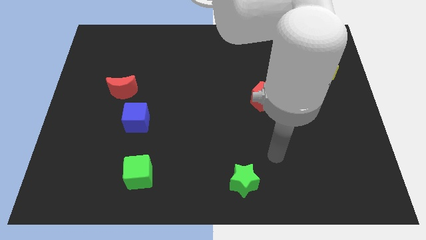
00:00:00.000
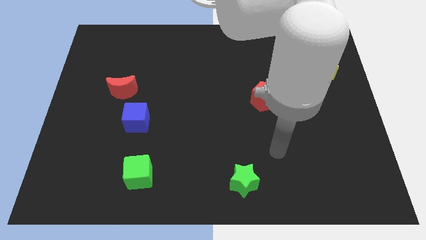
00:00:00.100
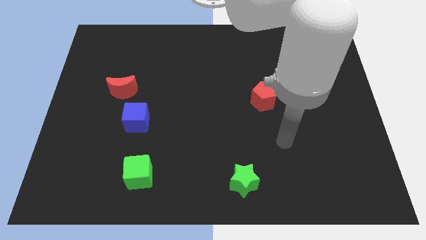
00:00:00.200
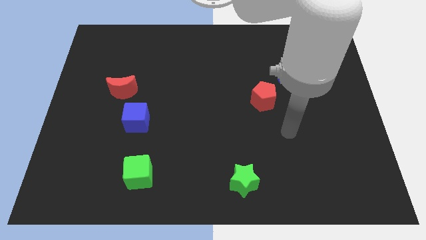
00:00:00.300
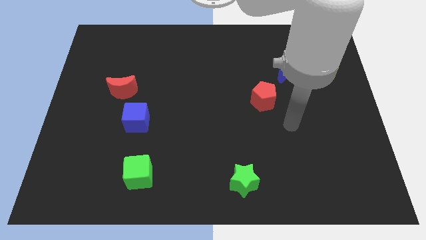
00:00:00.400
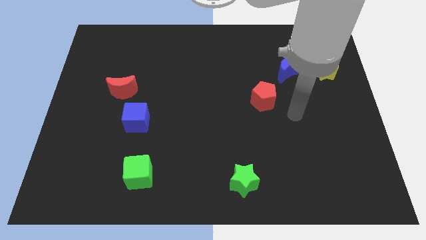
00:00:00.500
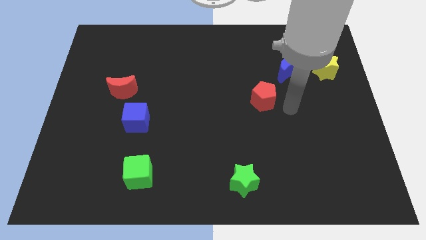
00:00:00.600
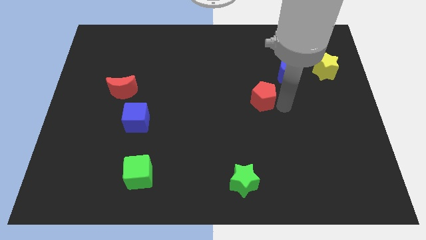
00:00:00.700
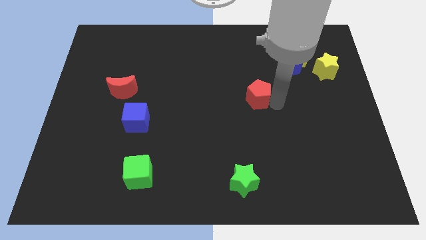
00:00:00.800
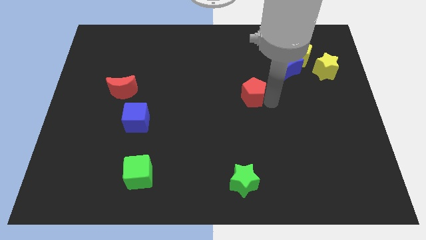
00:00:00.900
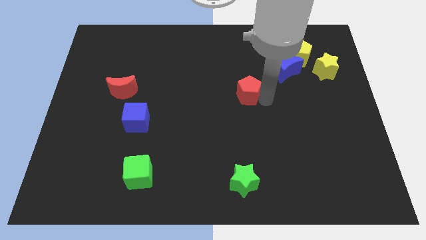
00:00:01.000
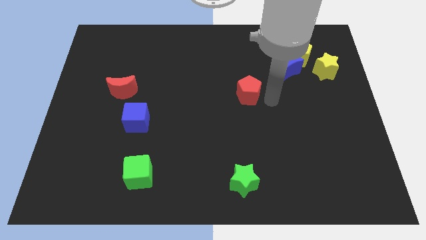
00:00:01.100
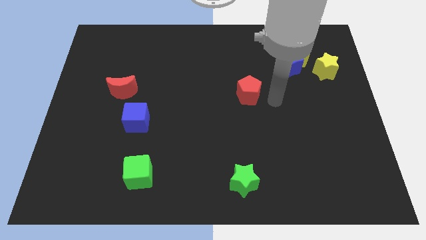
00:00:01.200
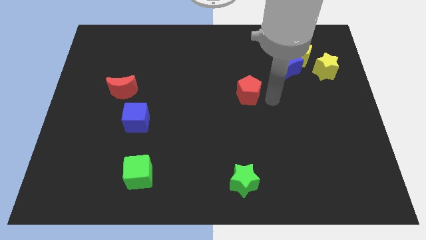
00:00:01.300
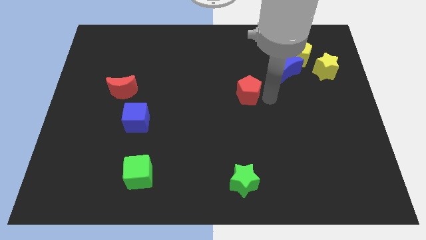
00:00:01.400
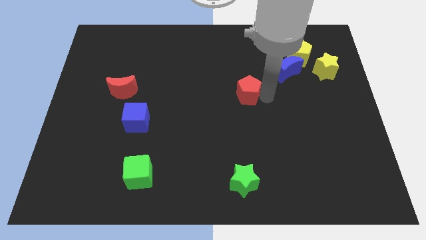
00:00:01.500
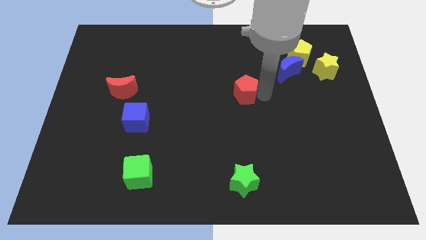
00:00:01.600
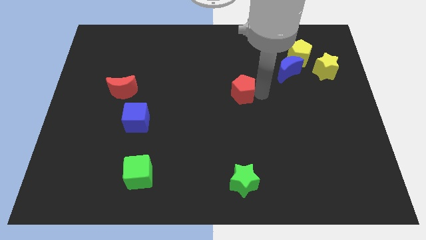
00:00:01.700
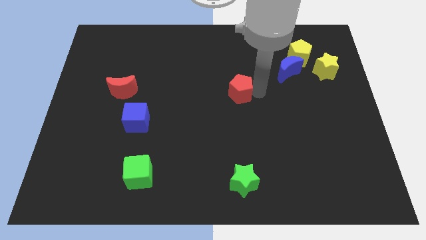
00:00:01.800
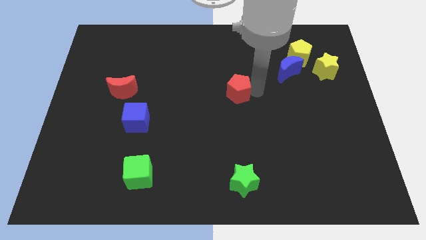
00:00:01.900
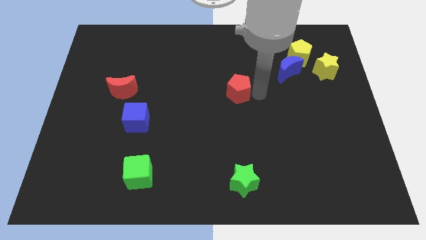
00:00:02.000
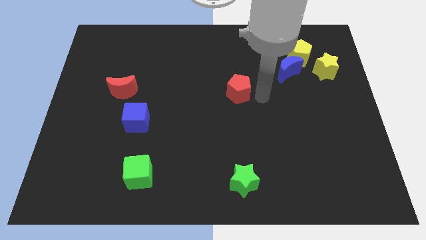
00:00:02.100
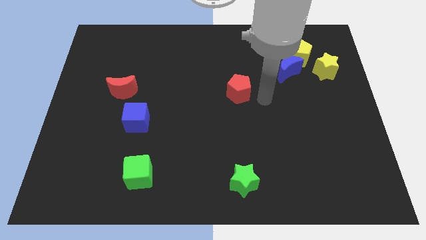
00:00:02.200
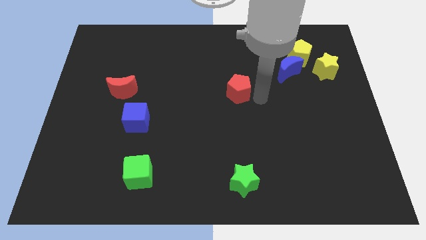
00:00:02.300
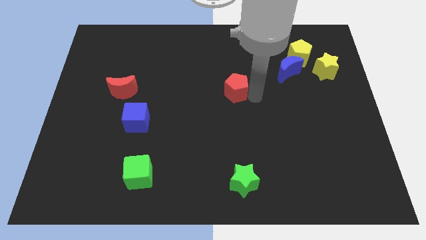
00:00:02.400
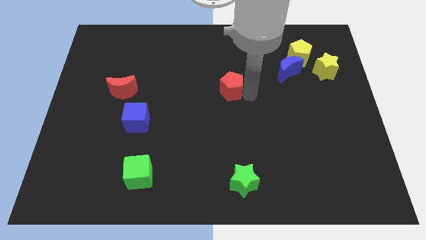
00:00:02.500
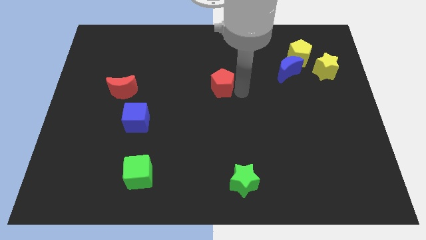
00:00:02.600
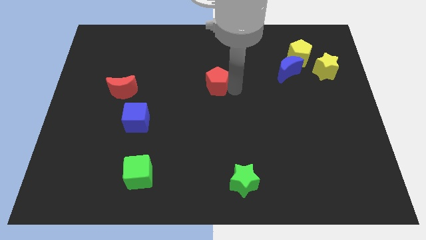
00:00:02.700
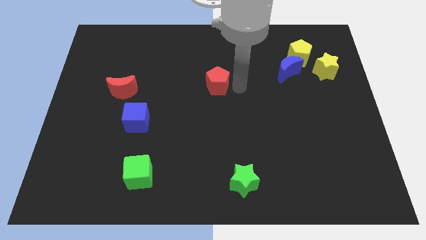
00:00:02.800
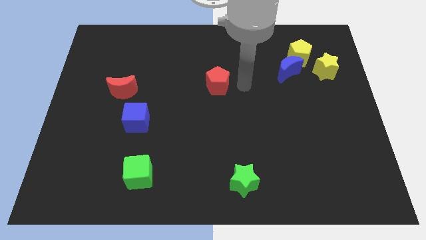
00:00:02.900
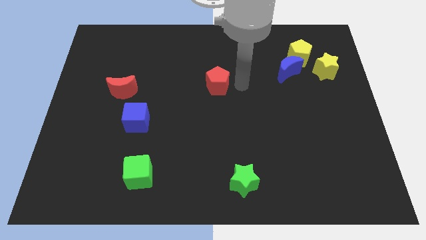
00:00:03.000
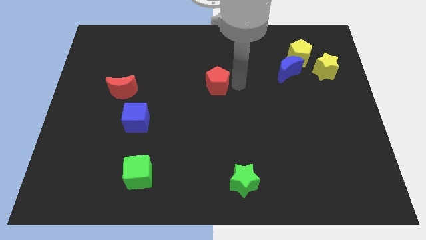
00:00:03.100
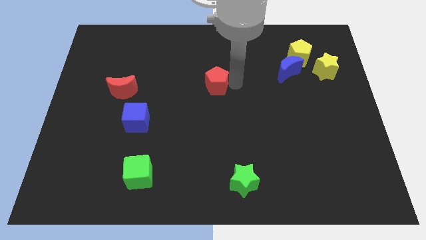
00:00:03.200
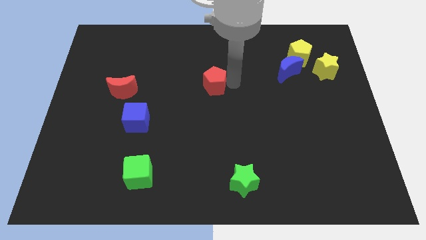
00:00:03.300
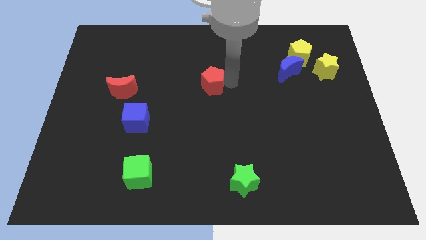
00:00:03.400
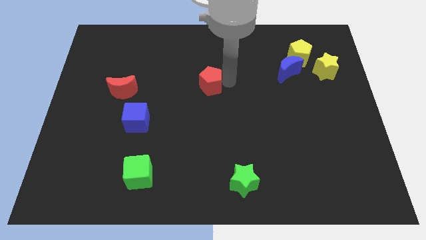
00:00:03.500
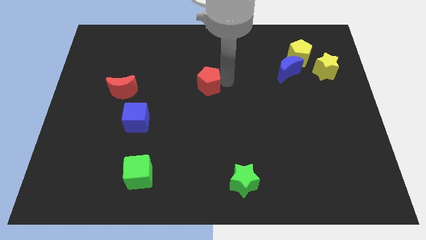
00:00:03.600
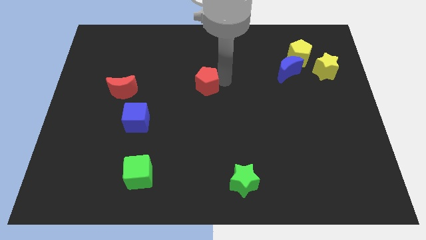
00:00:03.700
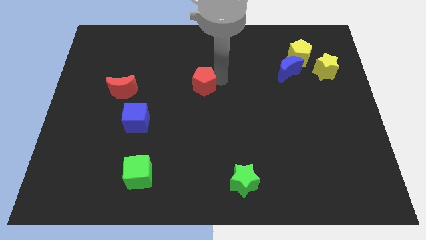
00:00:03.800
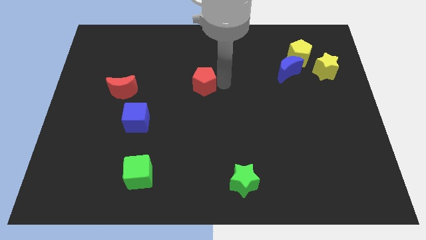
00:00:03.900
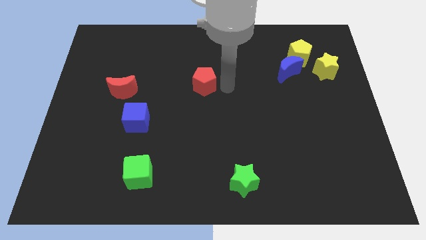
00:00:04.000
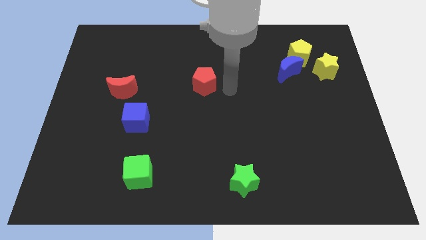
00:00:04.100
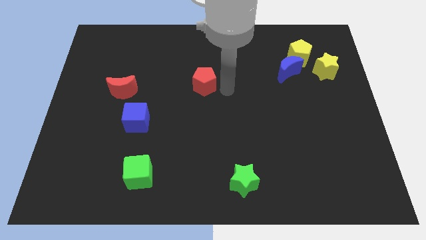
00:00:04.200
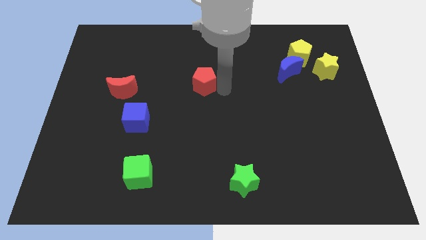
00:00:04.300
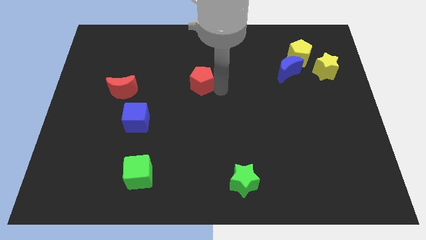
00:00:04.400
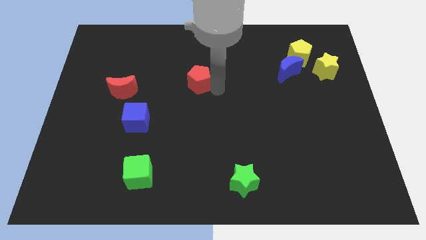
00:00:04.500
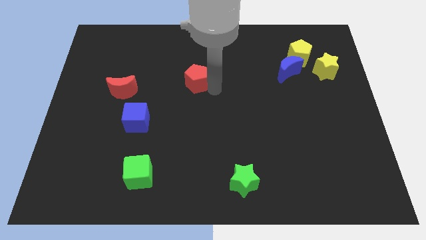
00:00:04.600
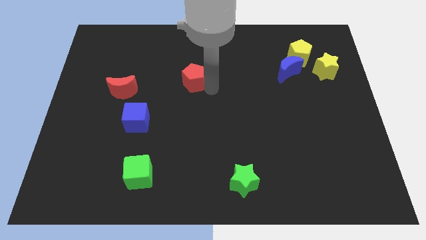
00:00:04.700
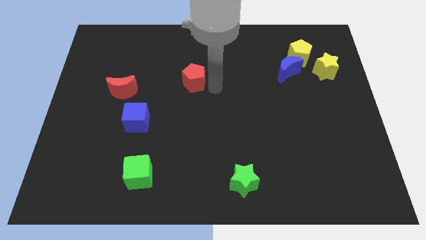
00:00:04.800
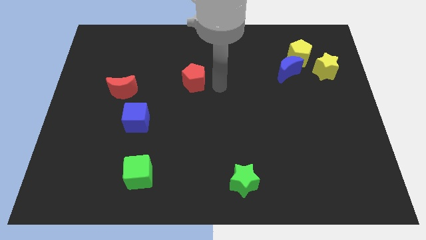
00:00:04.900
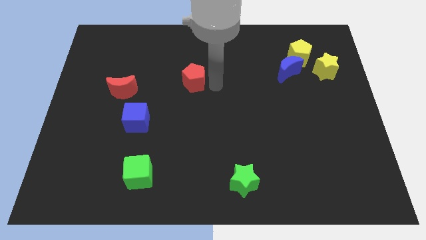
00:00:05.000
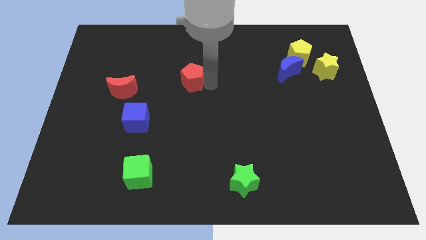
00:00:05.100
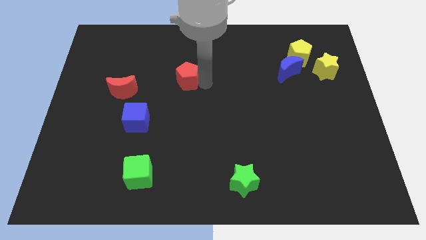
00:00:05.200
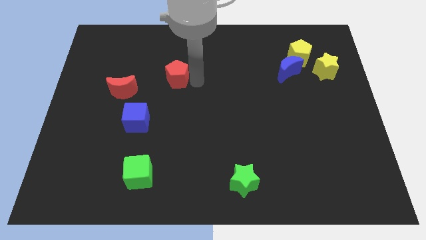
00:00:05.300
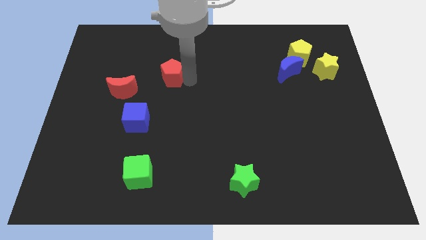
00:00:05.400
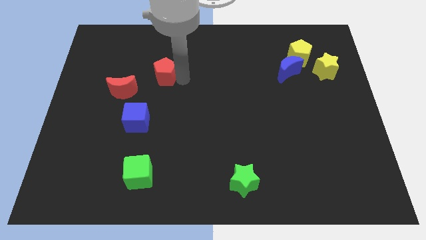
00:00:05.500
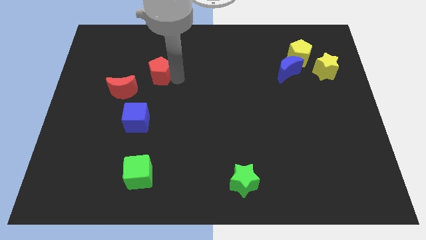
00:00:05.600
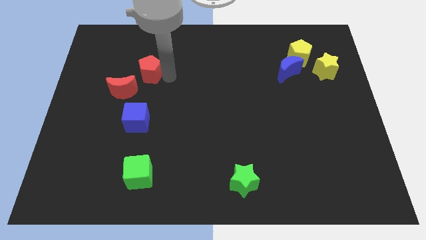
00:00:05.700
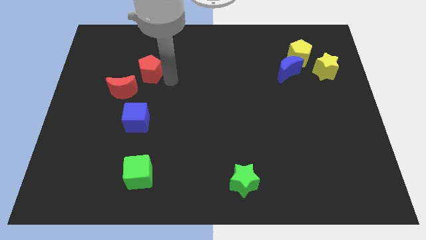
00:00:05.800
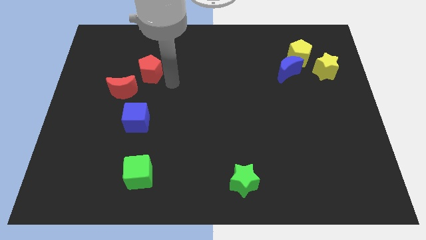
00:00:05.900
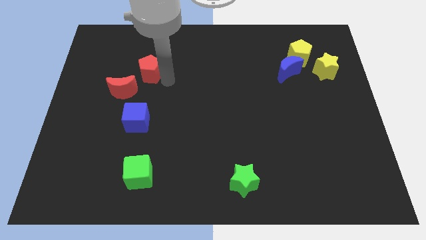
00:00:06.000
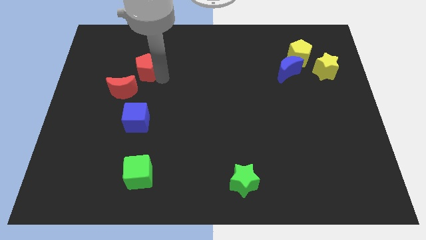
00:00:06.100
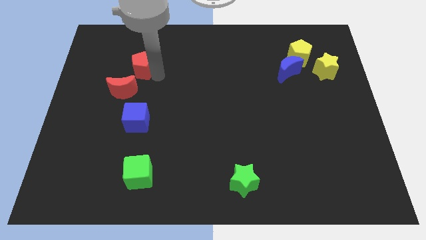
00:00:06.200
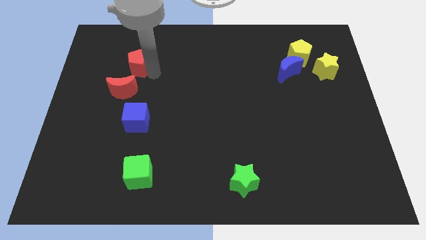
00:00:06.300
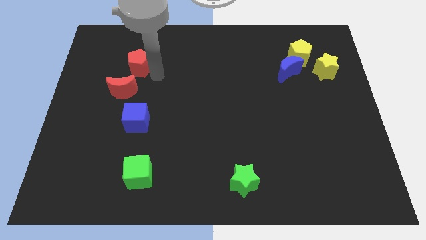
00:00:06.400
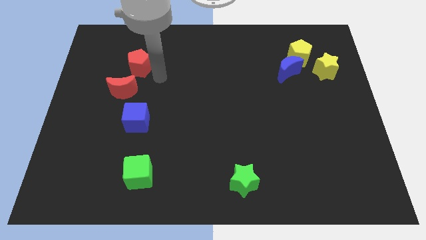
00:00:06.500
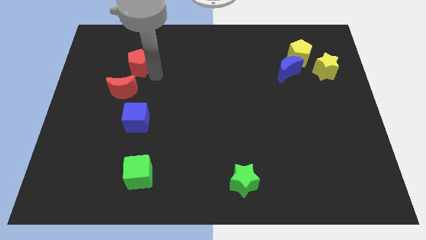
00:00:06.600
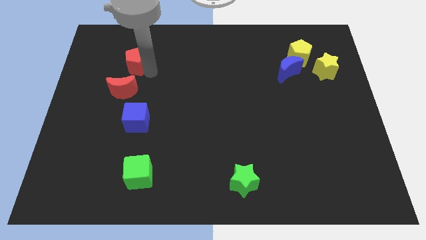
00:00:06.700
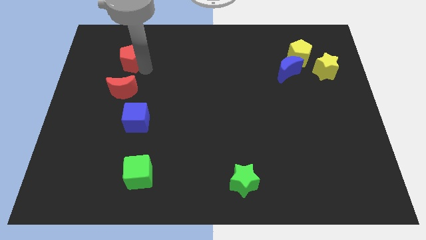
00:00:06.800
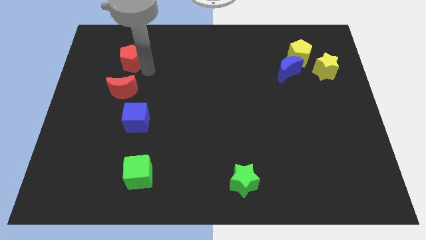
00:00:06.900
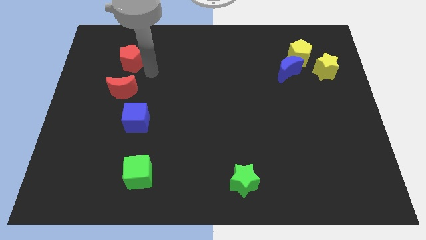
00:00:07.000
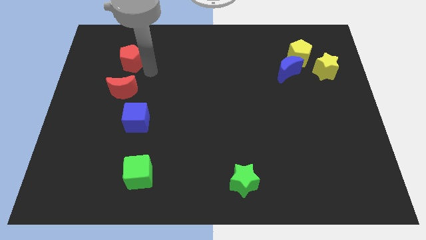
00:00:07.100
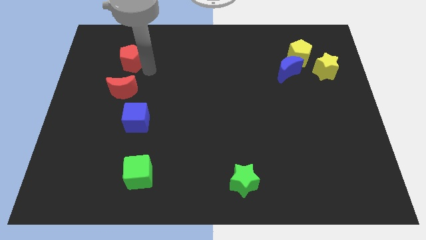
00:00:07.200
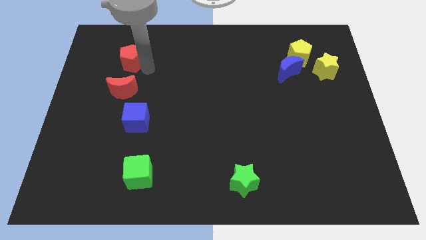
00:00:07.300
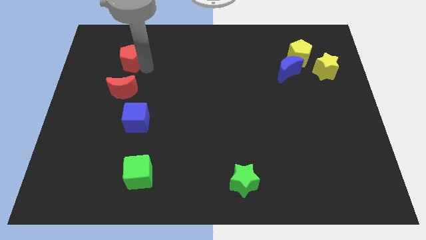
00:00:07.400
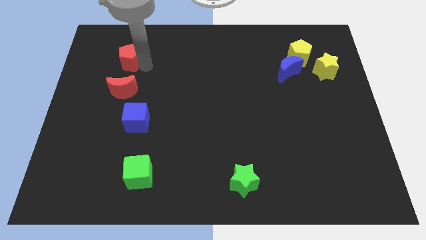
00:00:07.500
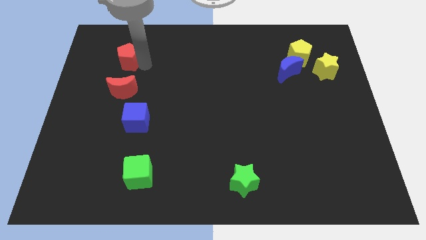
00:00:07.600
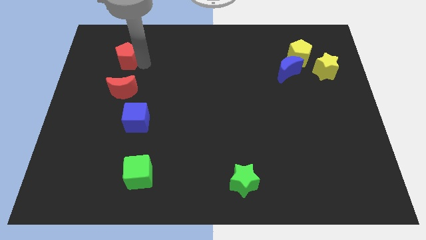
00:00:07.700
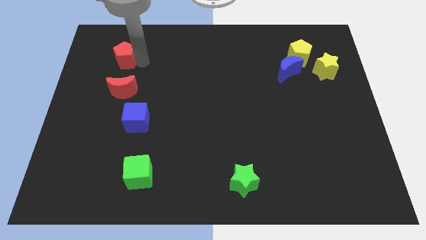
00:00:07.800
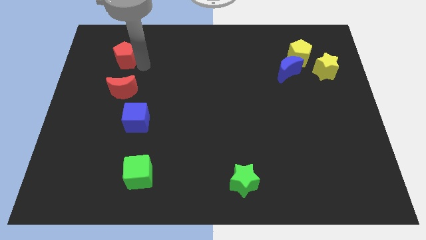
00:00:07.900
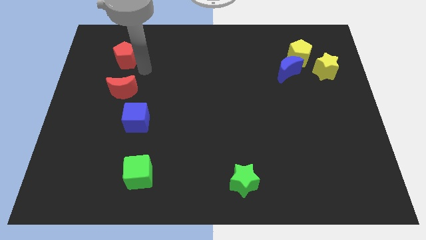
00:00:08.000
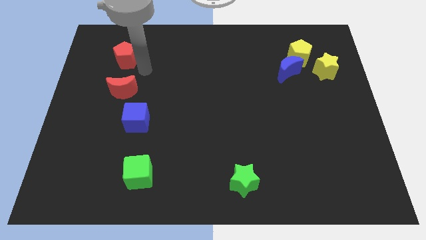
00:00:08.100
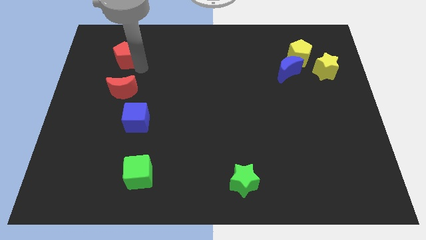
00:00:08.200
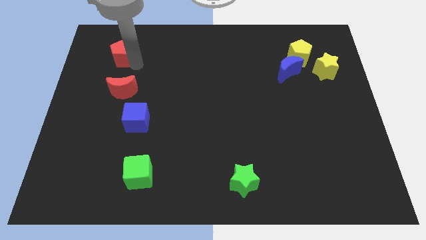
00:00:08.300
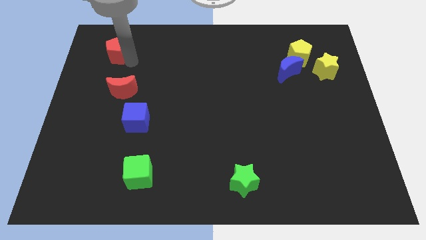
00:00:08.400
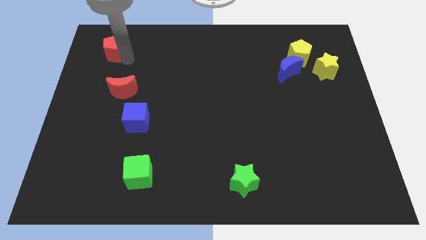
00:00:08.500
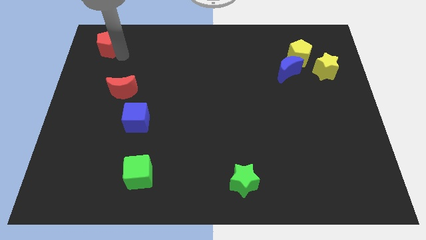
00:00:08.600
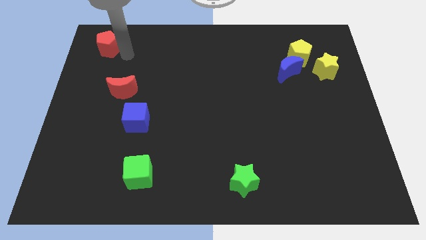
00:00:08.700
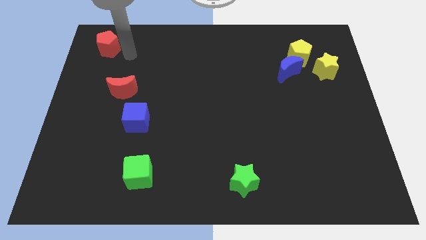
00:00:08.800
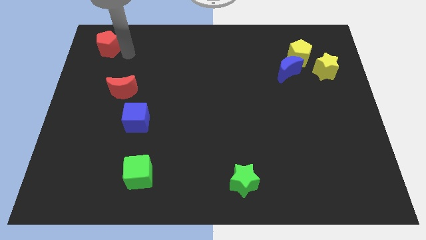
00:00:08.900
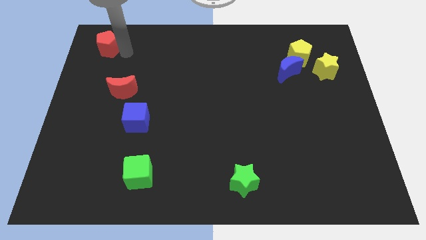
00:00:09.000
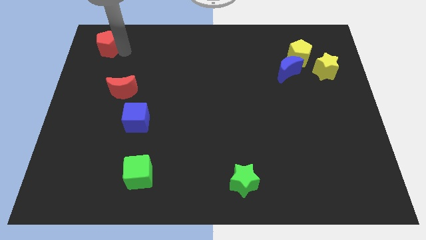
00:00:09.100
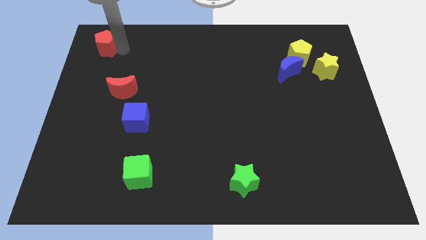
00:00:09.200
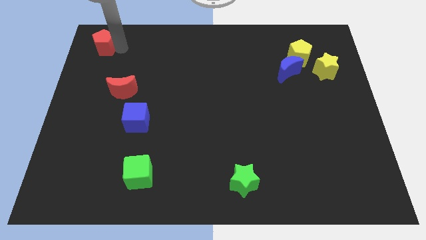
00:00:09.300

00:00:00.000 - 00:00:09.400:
slide the red pentagon to the top left of the board
